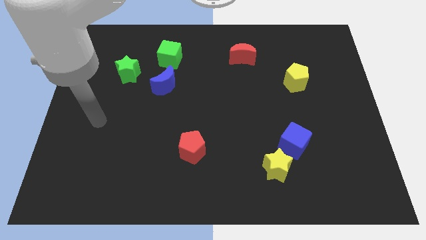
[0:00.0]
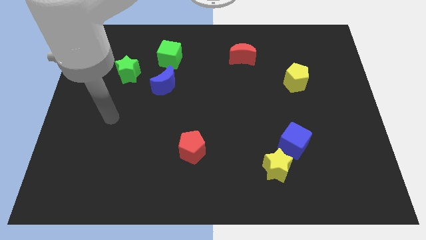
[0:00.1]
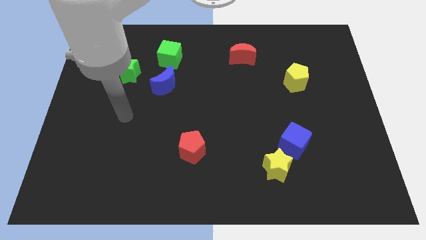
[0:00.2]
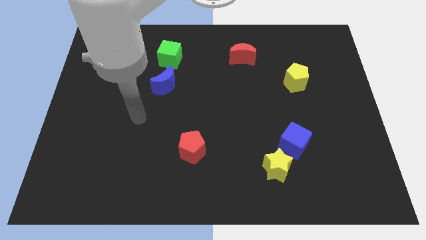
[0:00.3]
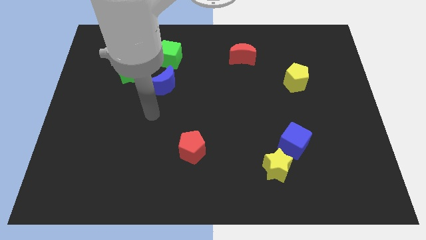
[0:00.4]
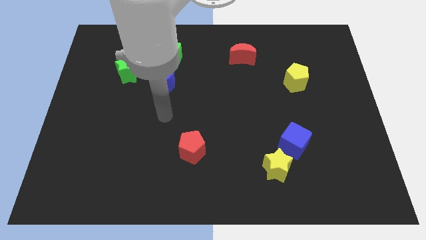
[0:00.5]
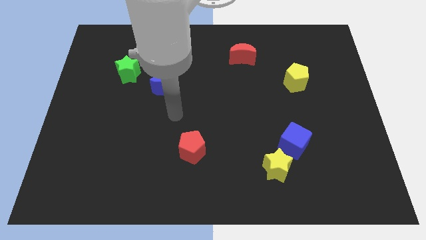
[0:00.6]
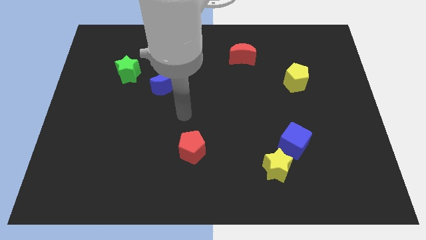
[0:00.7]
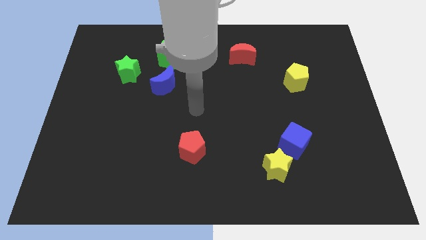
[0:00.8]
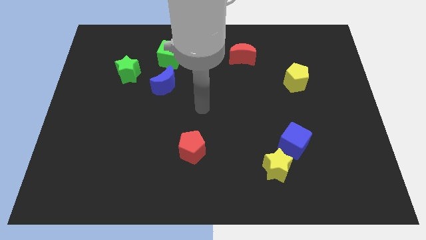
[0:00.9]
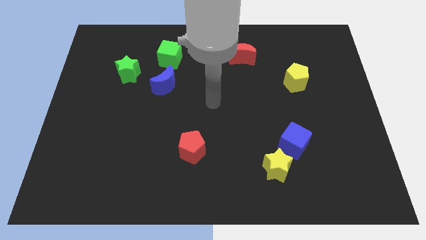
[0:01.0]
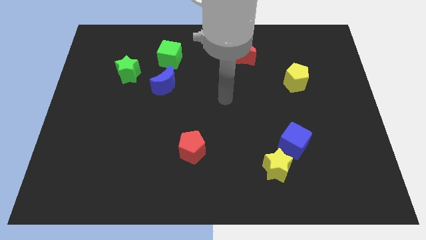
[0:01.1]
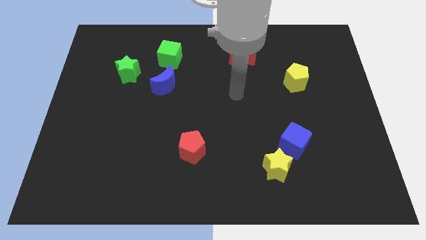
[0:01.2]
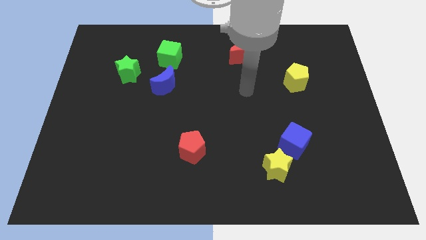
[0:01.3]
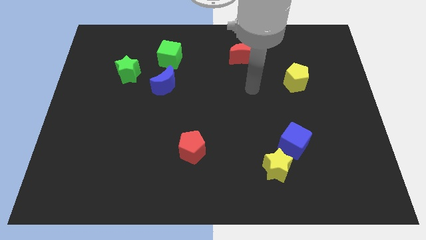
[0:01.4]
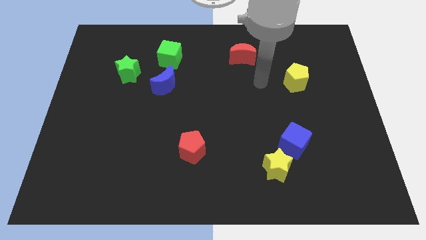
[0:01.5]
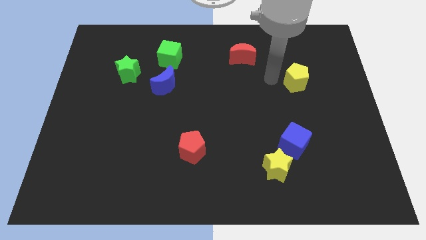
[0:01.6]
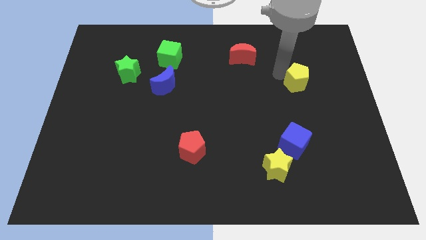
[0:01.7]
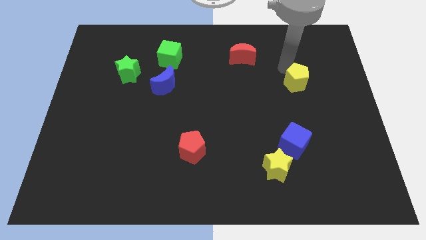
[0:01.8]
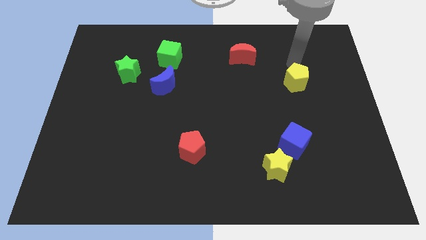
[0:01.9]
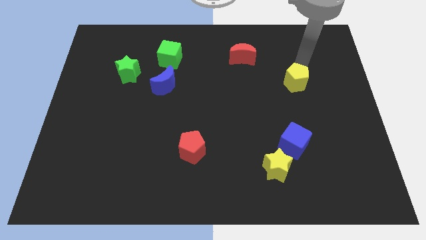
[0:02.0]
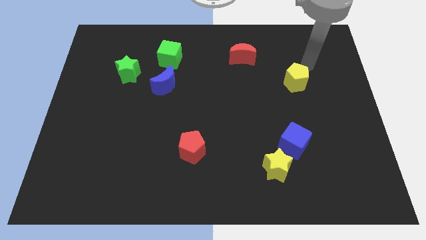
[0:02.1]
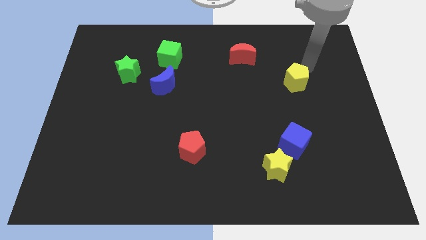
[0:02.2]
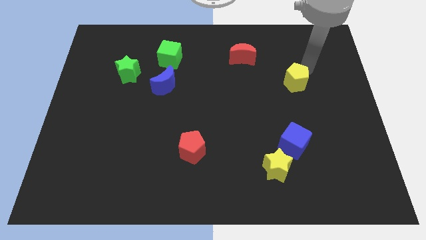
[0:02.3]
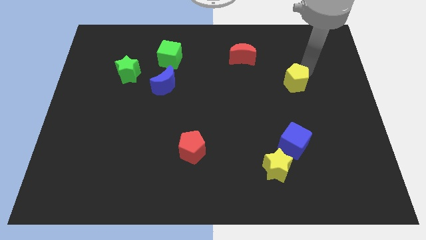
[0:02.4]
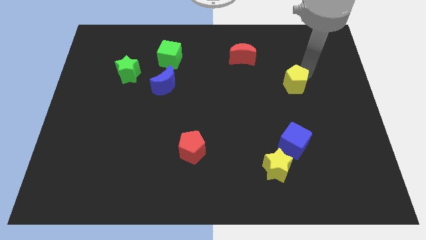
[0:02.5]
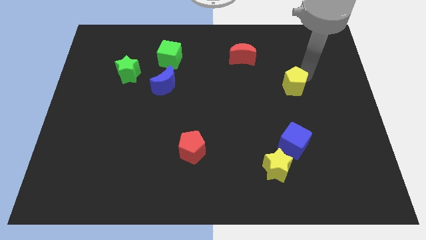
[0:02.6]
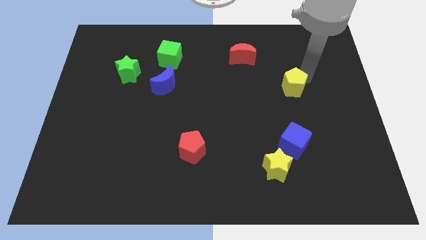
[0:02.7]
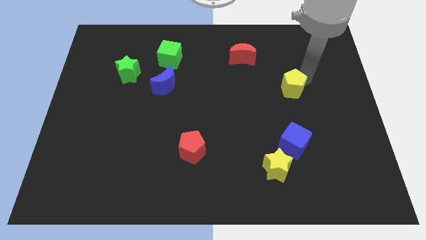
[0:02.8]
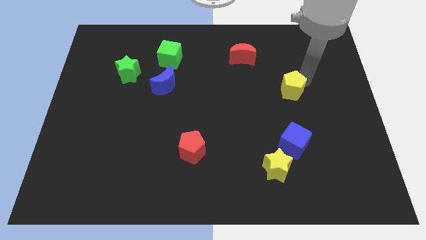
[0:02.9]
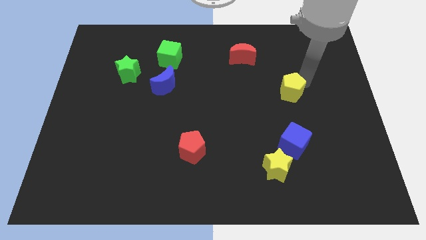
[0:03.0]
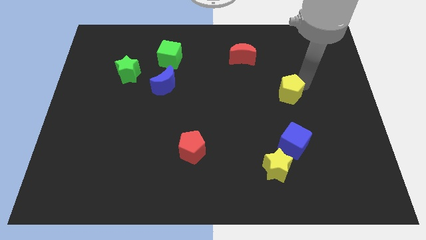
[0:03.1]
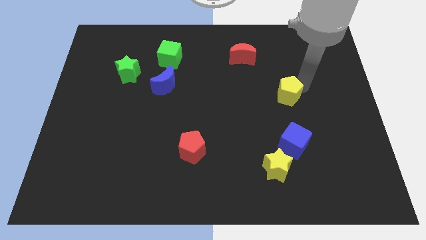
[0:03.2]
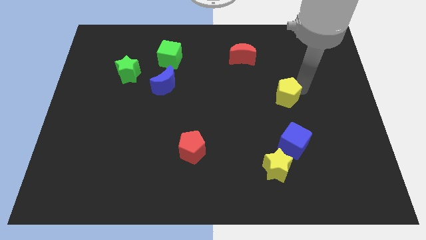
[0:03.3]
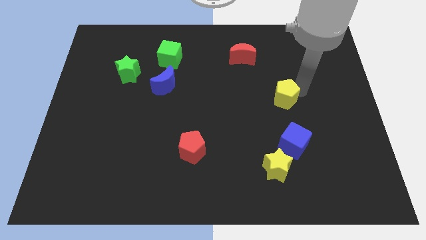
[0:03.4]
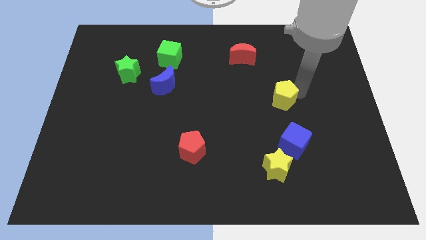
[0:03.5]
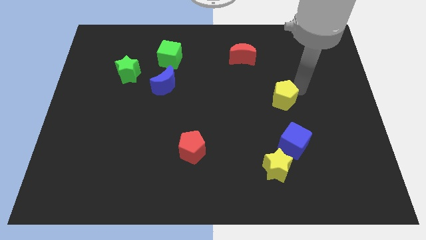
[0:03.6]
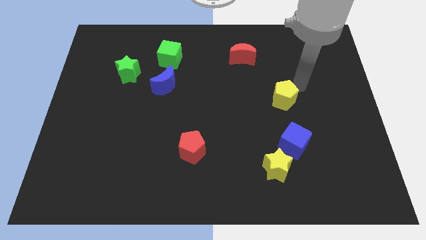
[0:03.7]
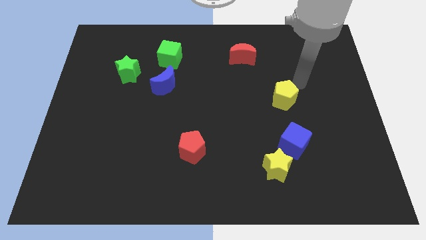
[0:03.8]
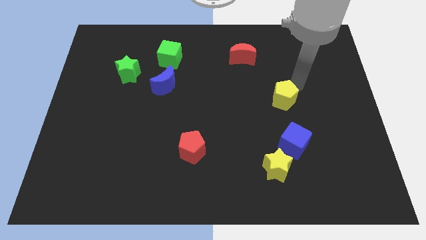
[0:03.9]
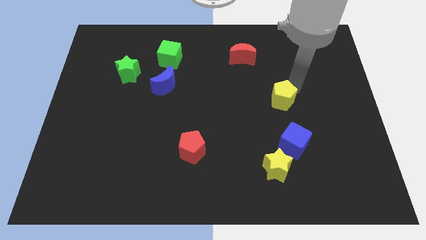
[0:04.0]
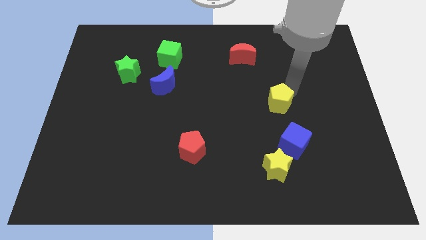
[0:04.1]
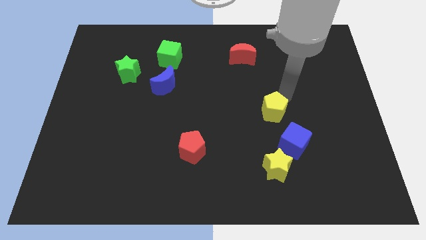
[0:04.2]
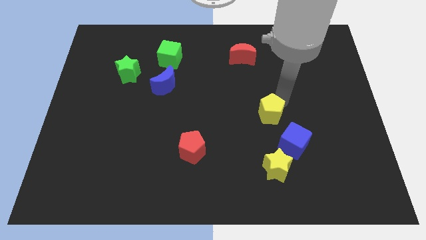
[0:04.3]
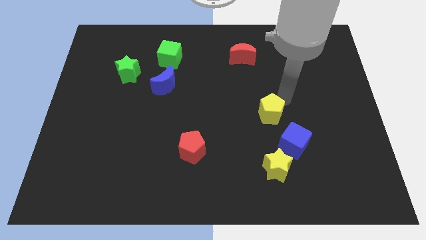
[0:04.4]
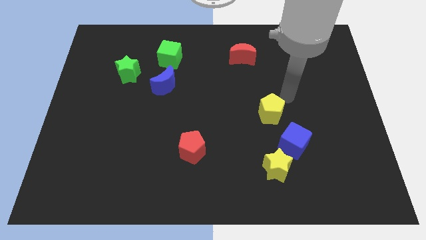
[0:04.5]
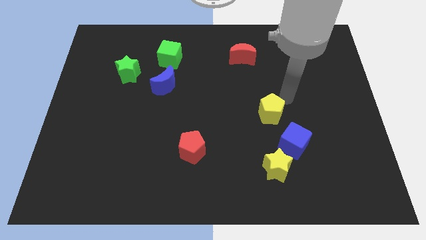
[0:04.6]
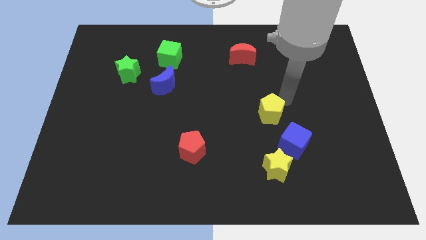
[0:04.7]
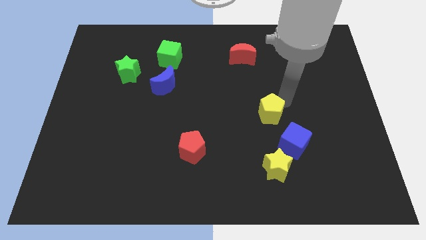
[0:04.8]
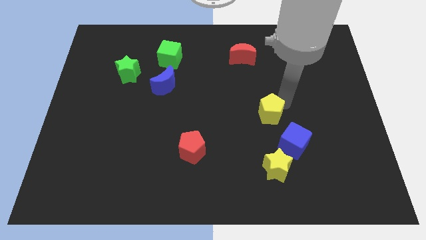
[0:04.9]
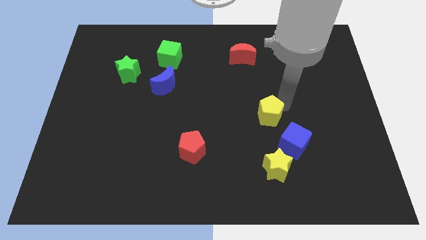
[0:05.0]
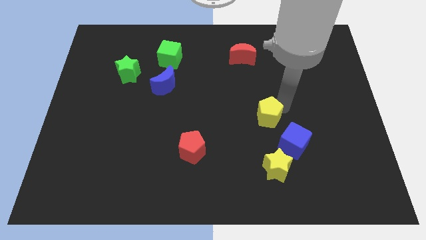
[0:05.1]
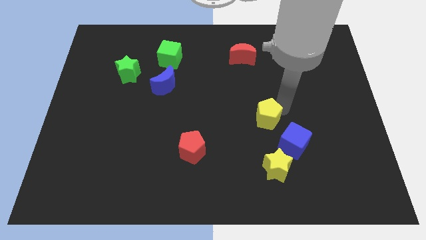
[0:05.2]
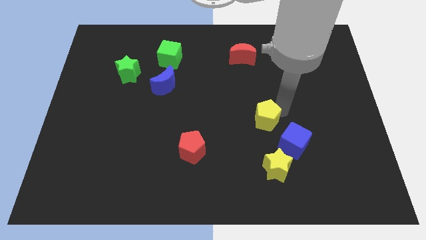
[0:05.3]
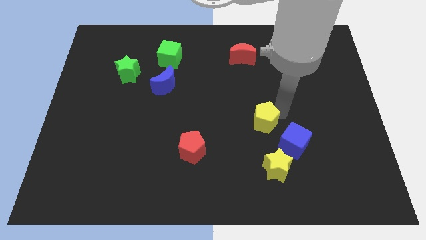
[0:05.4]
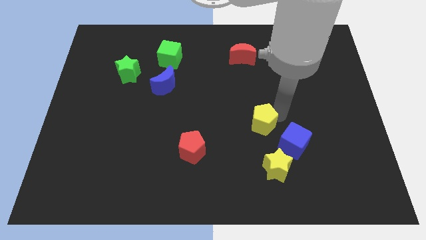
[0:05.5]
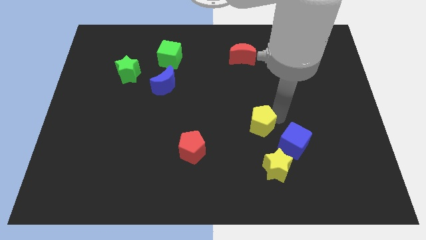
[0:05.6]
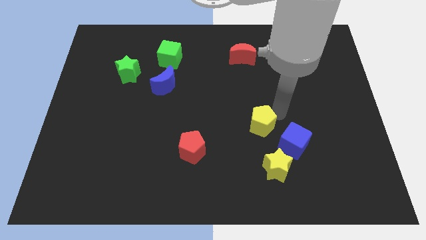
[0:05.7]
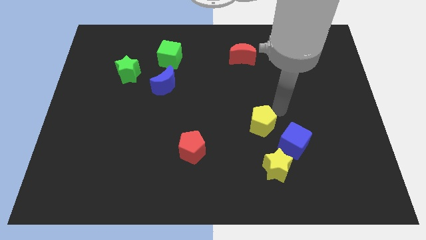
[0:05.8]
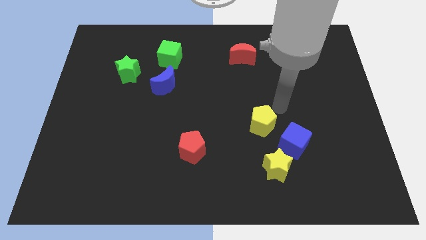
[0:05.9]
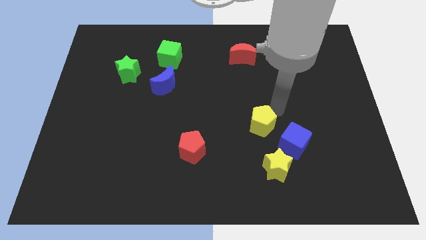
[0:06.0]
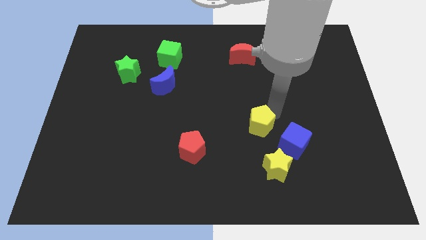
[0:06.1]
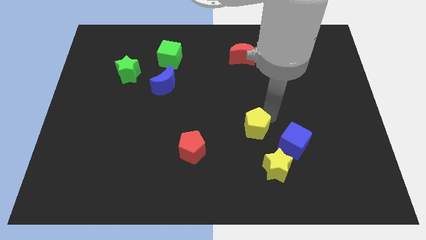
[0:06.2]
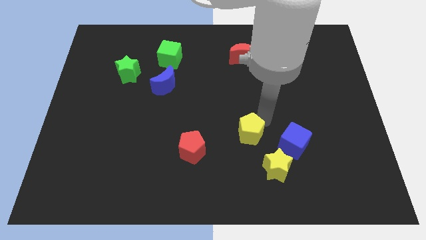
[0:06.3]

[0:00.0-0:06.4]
push the yellow pentagon just right of the red pentagon

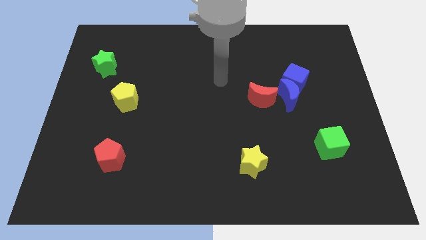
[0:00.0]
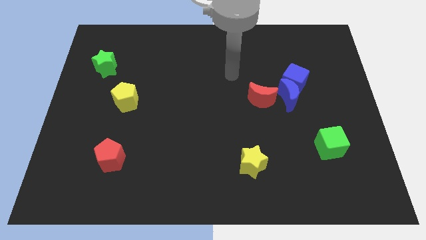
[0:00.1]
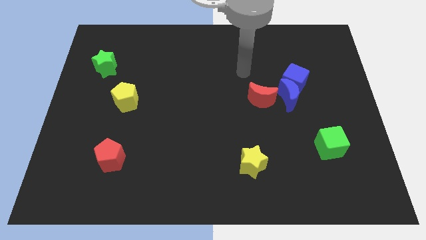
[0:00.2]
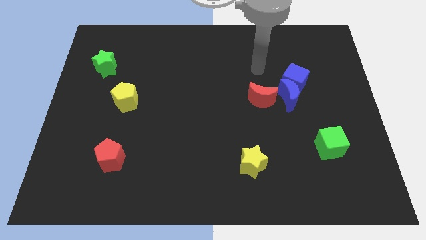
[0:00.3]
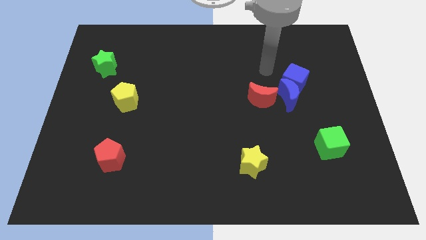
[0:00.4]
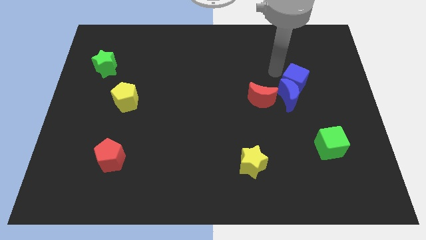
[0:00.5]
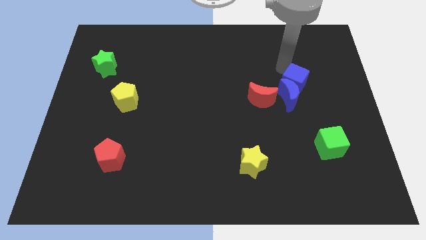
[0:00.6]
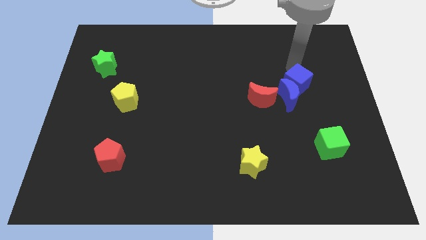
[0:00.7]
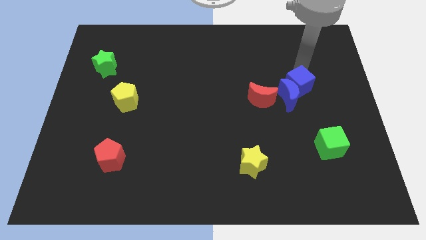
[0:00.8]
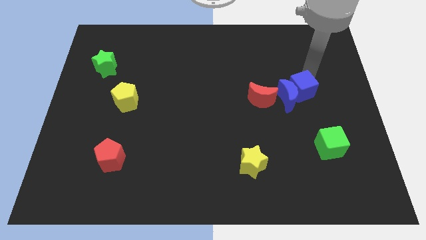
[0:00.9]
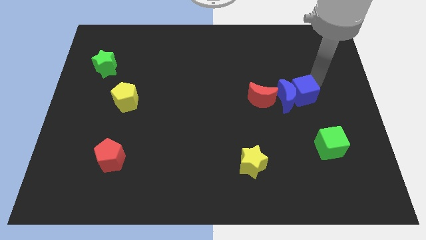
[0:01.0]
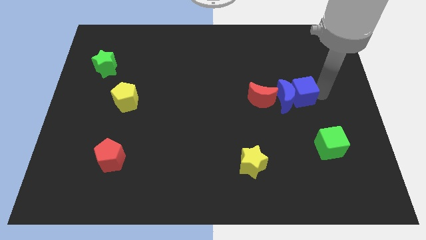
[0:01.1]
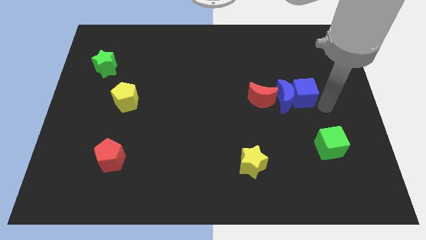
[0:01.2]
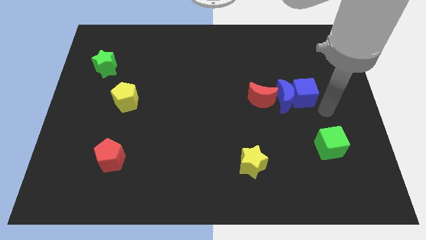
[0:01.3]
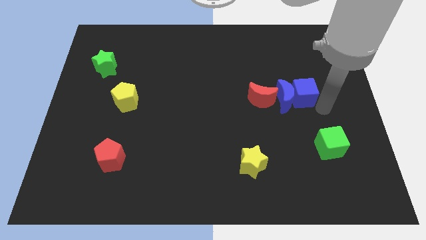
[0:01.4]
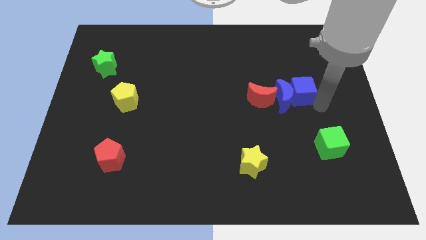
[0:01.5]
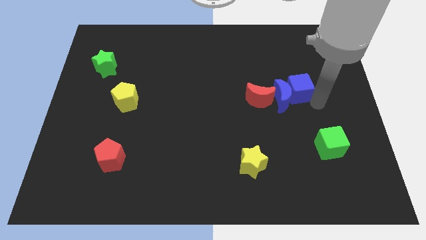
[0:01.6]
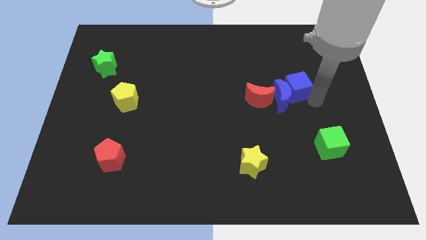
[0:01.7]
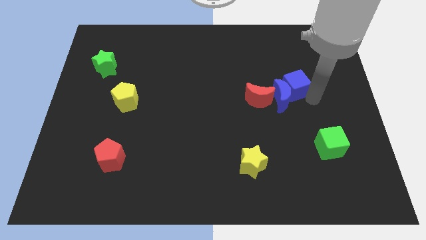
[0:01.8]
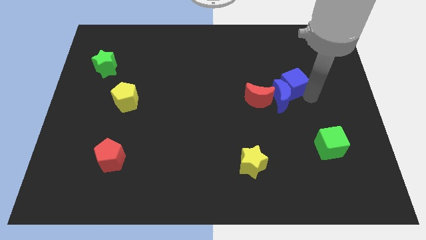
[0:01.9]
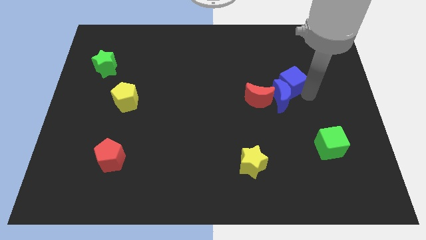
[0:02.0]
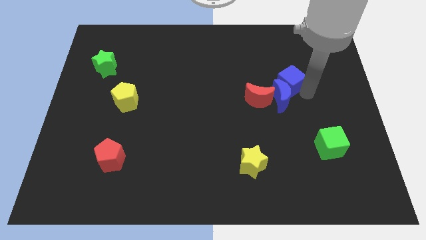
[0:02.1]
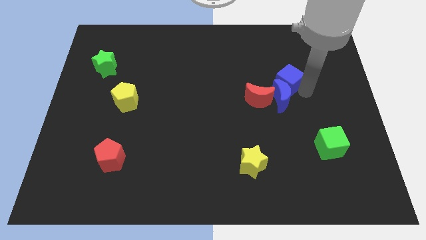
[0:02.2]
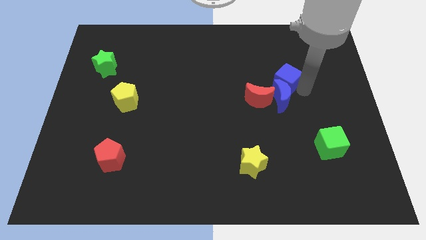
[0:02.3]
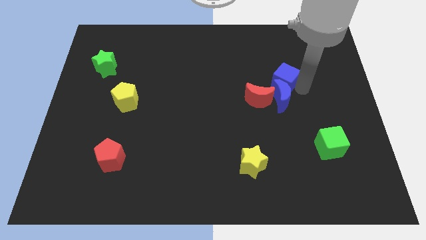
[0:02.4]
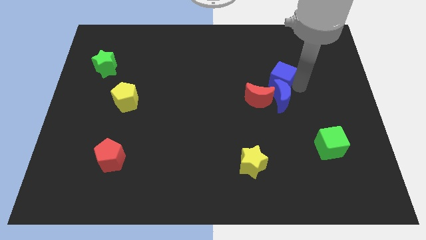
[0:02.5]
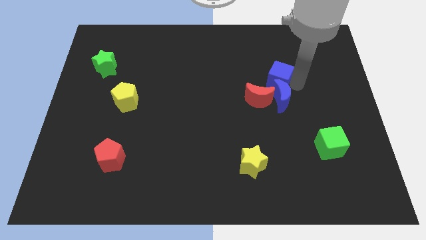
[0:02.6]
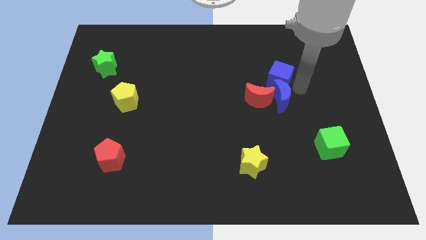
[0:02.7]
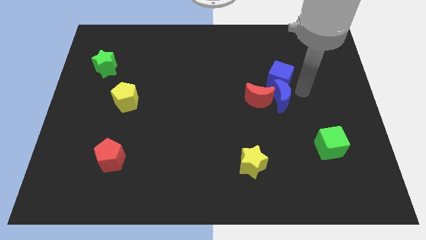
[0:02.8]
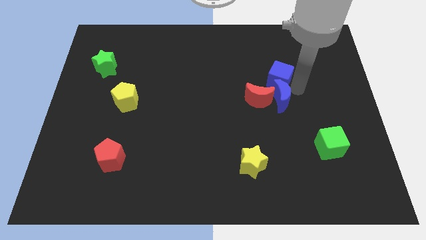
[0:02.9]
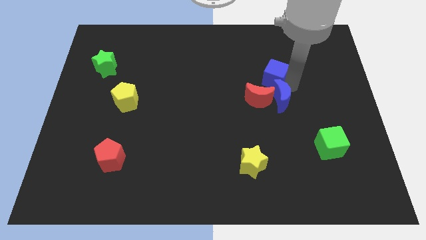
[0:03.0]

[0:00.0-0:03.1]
put the blue cube above the red moon
